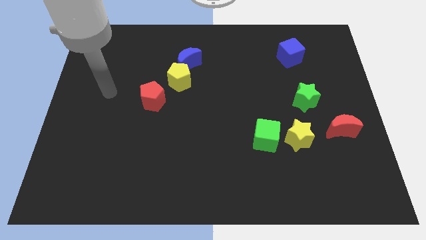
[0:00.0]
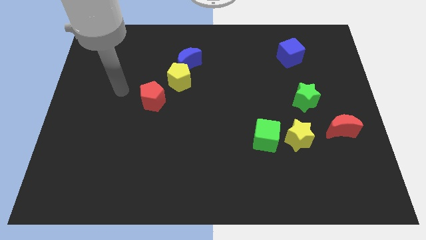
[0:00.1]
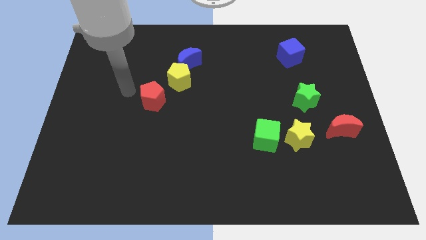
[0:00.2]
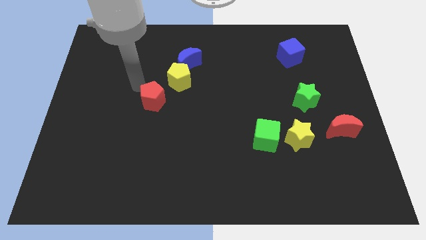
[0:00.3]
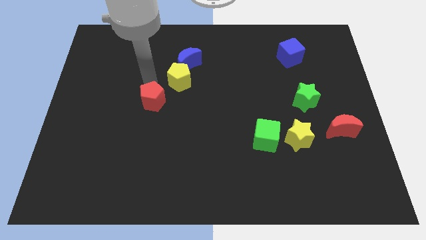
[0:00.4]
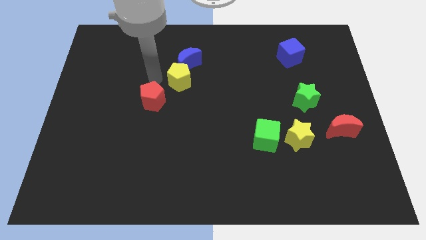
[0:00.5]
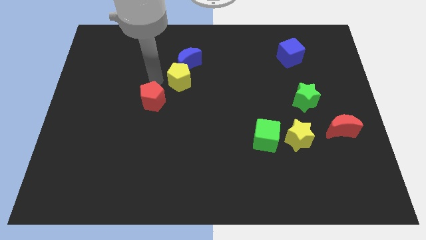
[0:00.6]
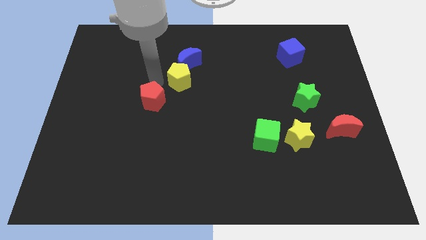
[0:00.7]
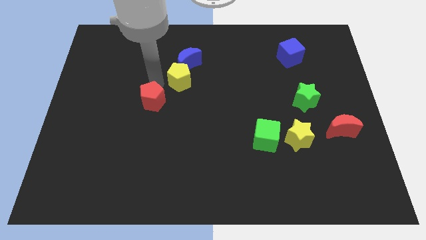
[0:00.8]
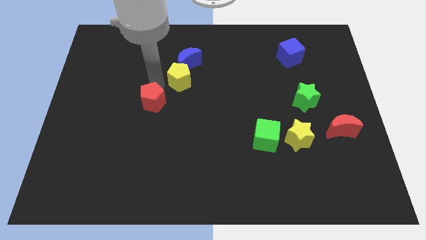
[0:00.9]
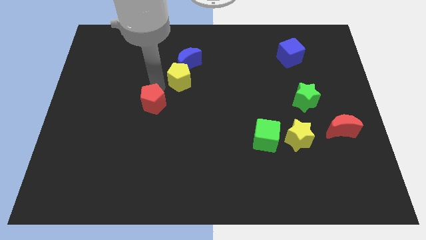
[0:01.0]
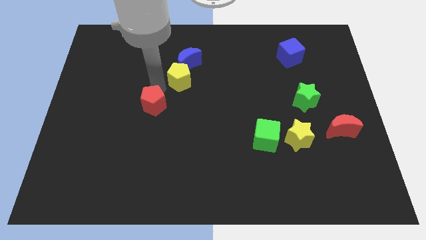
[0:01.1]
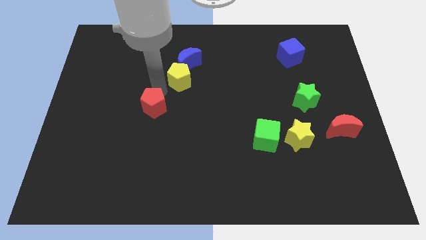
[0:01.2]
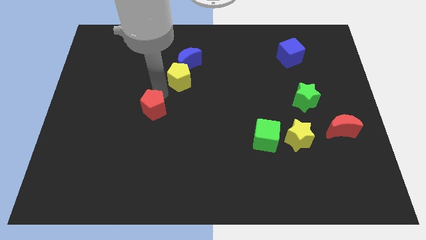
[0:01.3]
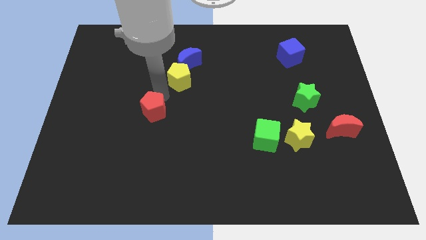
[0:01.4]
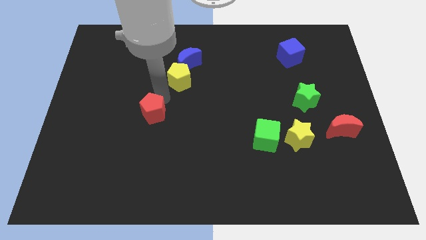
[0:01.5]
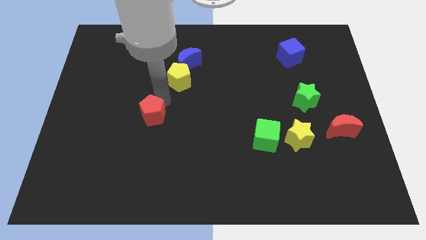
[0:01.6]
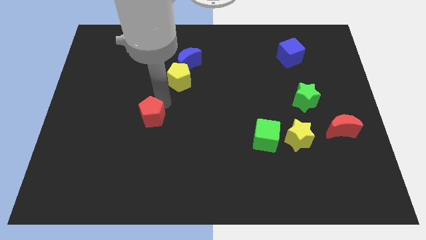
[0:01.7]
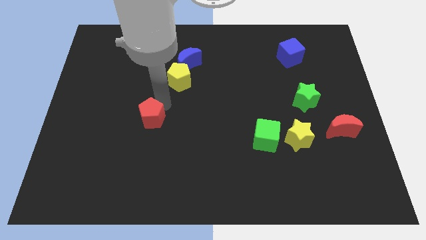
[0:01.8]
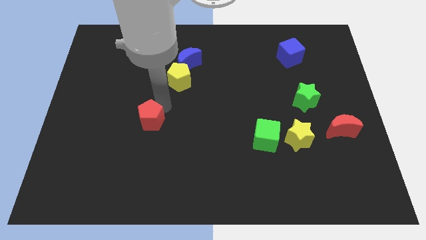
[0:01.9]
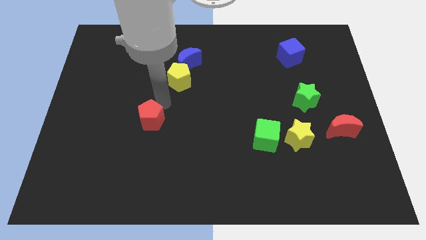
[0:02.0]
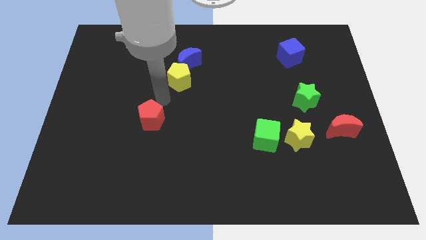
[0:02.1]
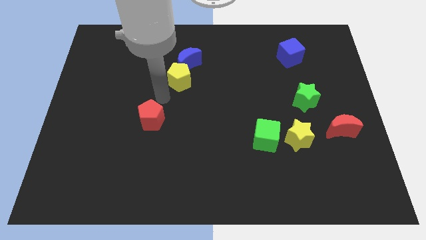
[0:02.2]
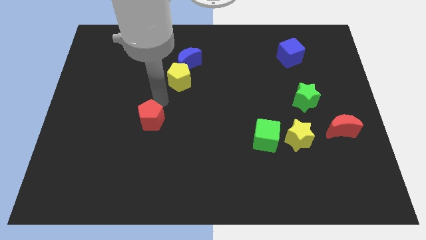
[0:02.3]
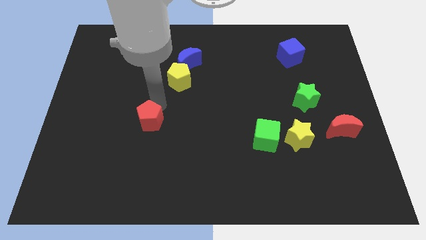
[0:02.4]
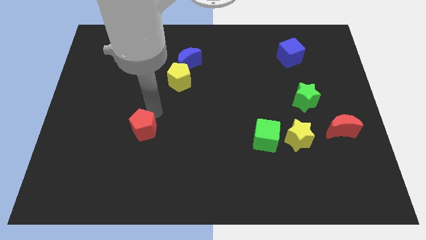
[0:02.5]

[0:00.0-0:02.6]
push the red pentagon somewhat down

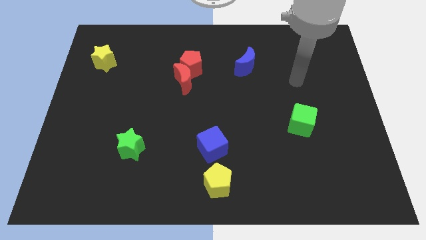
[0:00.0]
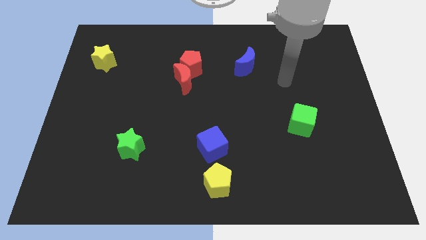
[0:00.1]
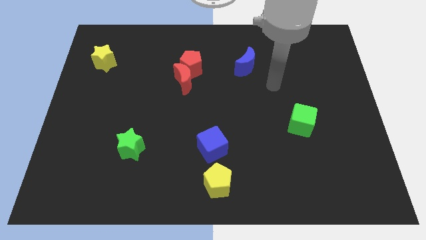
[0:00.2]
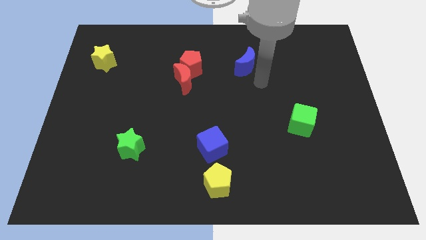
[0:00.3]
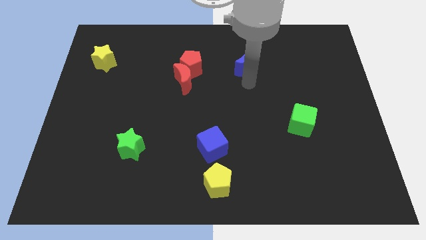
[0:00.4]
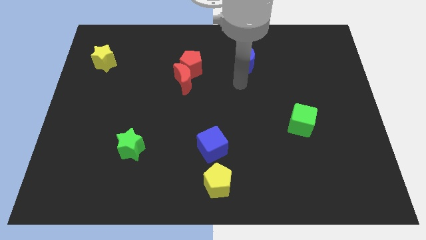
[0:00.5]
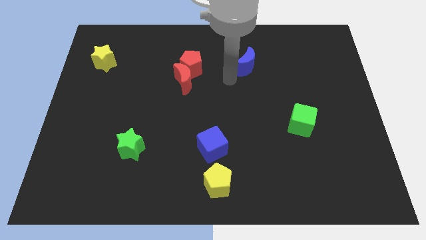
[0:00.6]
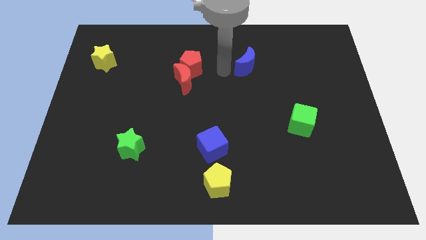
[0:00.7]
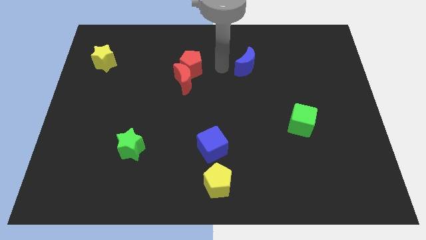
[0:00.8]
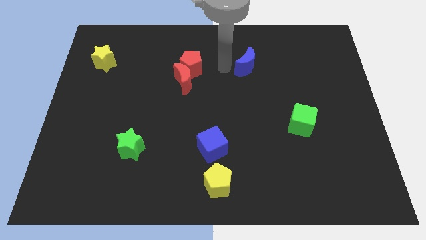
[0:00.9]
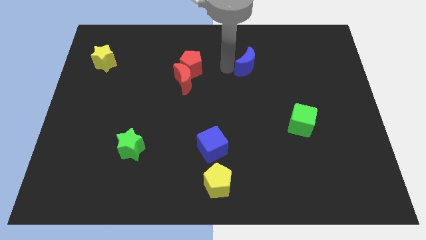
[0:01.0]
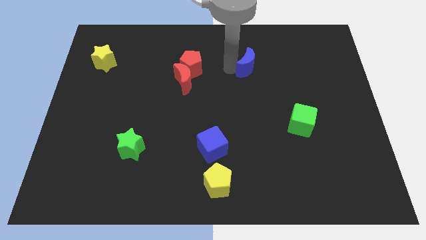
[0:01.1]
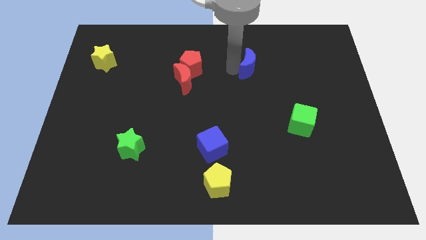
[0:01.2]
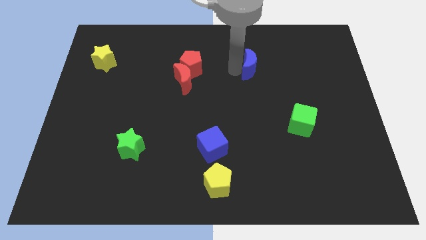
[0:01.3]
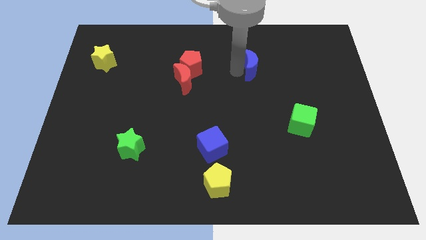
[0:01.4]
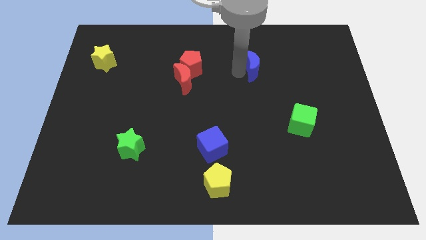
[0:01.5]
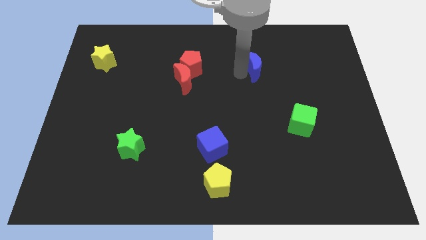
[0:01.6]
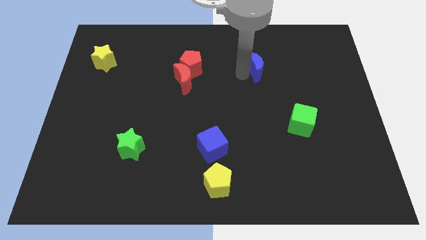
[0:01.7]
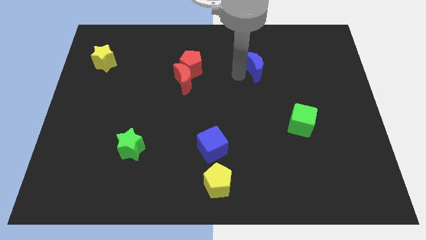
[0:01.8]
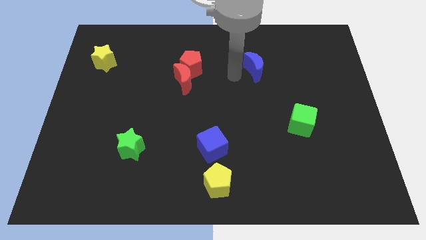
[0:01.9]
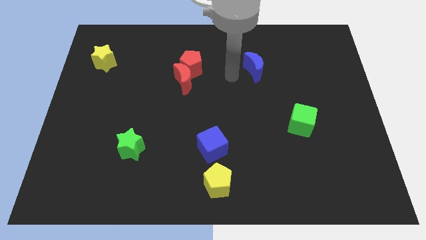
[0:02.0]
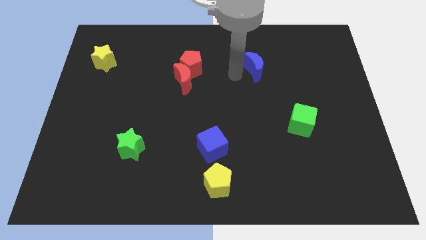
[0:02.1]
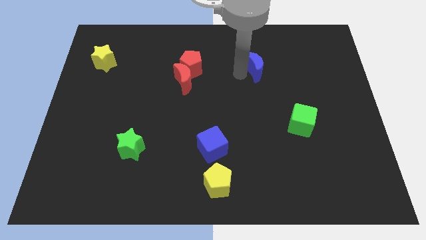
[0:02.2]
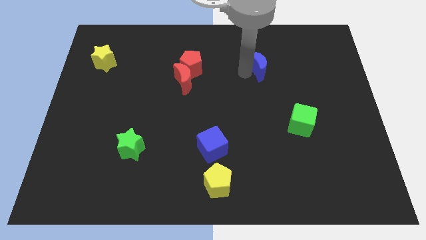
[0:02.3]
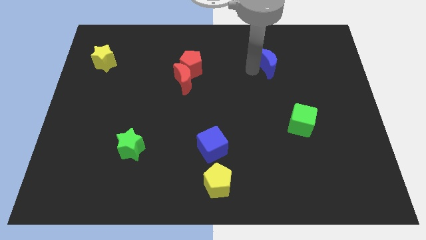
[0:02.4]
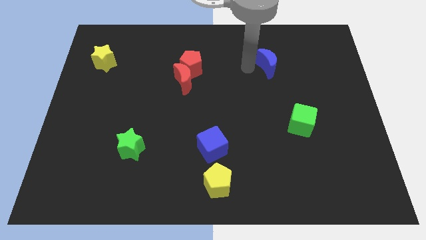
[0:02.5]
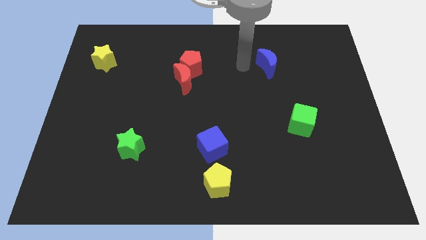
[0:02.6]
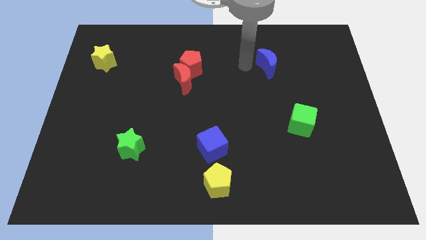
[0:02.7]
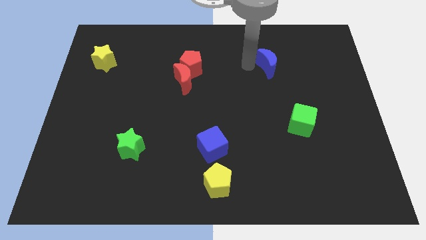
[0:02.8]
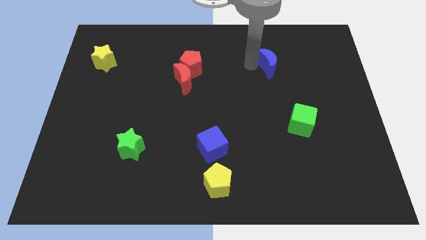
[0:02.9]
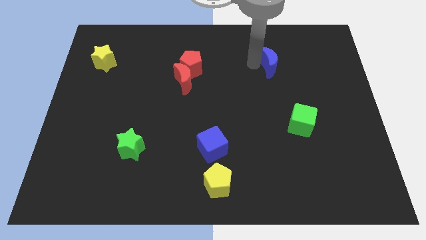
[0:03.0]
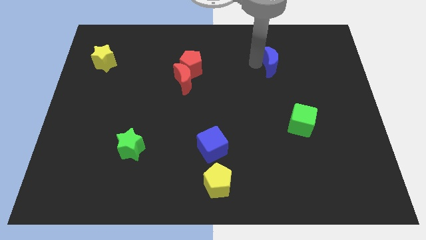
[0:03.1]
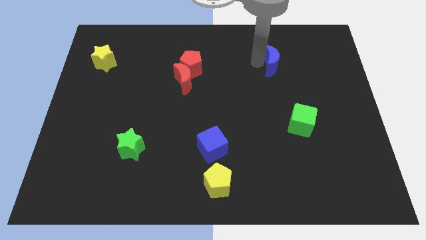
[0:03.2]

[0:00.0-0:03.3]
push the blue moon to the right a little

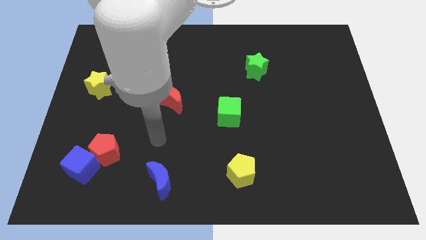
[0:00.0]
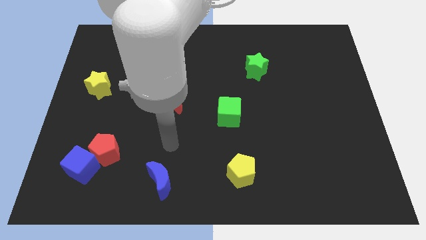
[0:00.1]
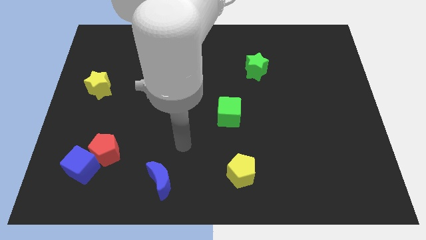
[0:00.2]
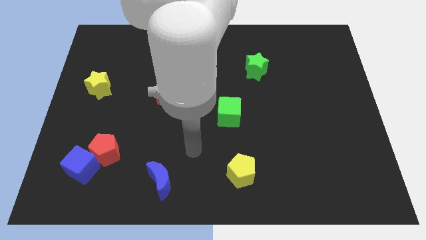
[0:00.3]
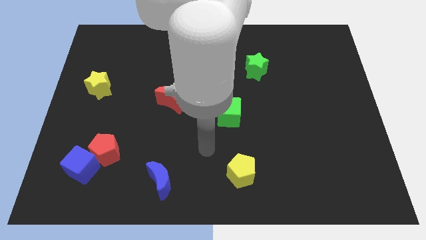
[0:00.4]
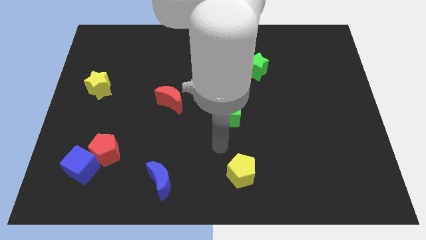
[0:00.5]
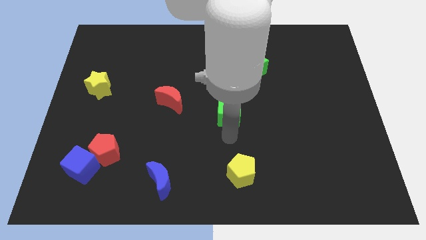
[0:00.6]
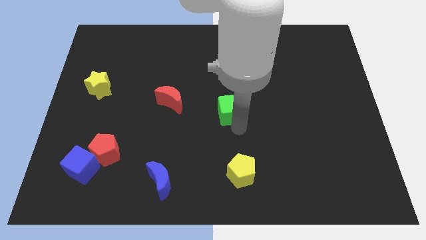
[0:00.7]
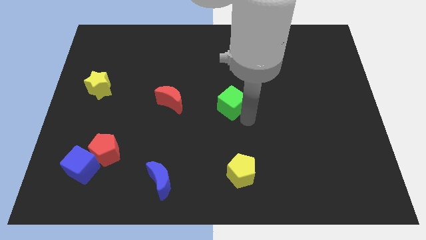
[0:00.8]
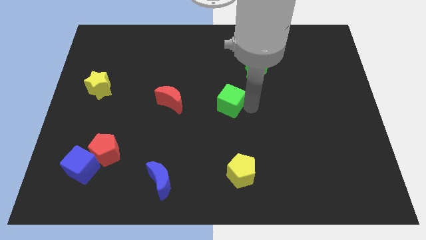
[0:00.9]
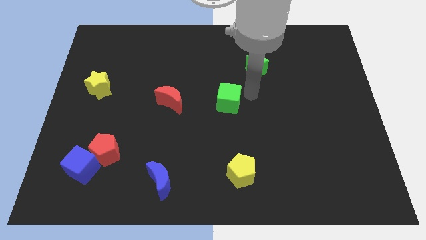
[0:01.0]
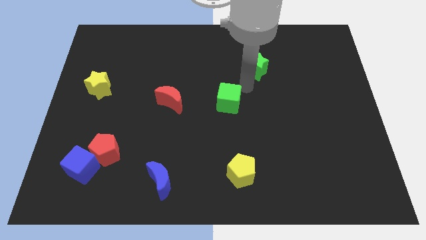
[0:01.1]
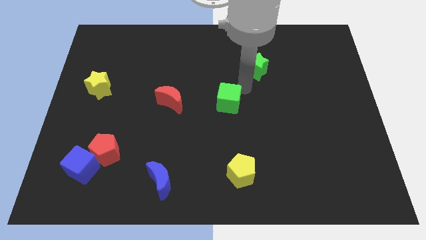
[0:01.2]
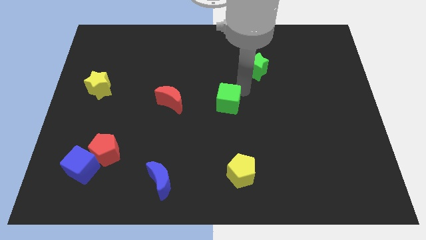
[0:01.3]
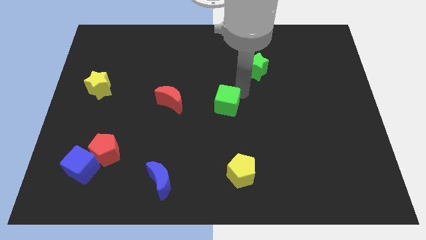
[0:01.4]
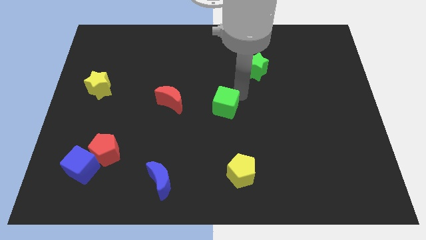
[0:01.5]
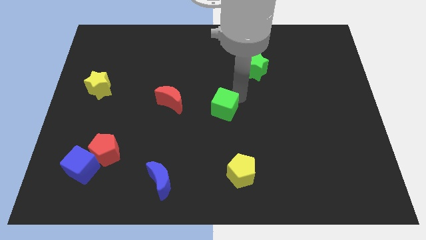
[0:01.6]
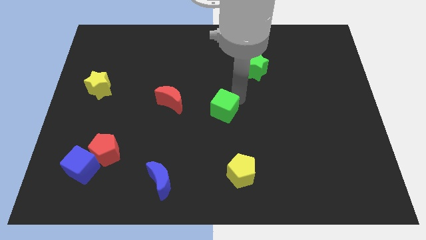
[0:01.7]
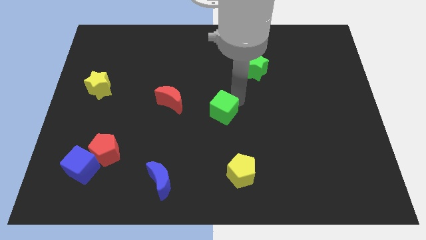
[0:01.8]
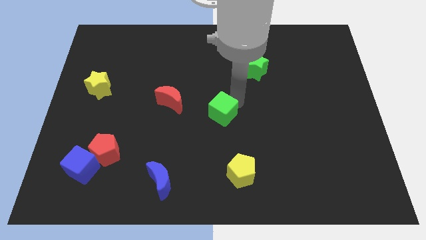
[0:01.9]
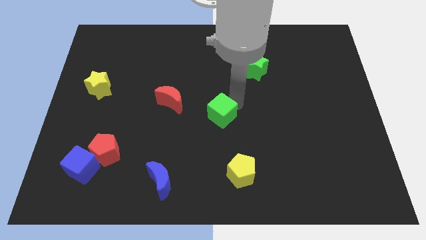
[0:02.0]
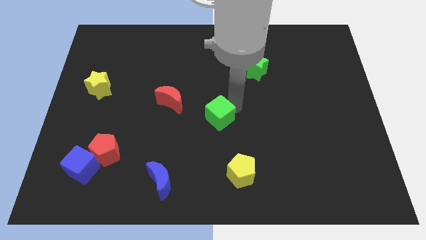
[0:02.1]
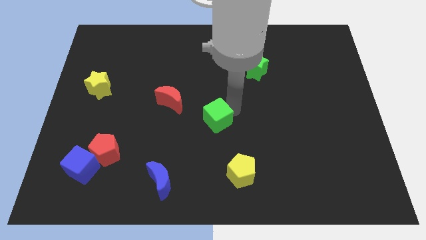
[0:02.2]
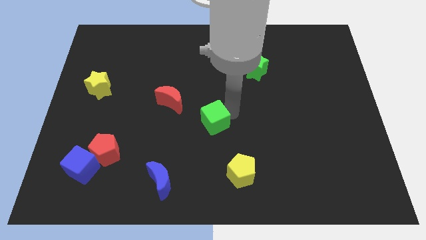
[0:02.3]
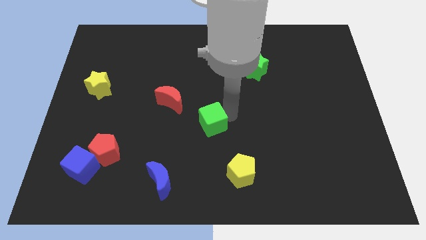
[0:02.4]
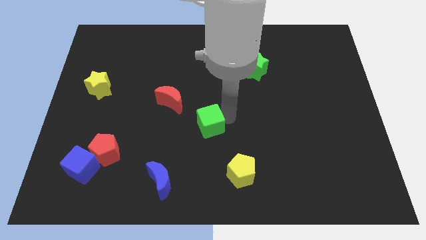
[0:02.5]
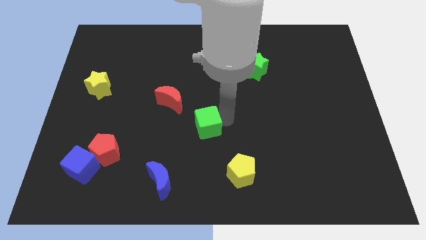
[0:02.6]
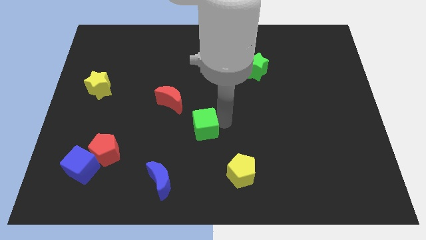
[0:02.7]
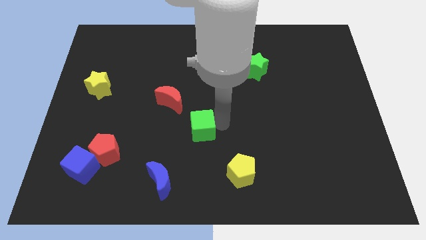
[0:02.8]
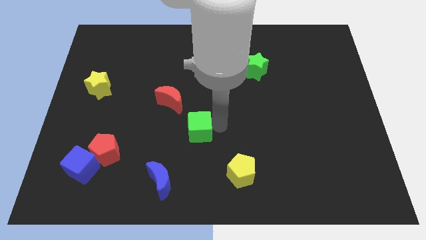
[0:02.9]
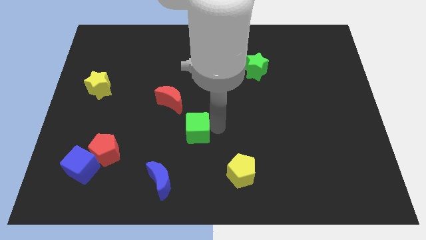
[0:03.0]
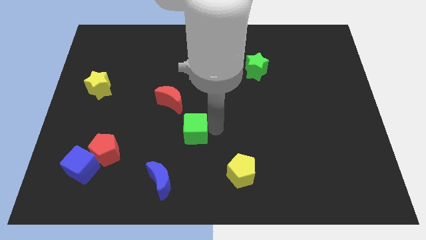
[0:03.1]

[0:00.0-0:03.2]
slide the green cube to the left a bit
